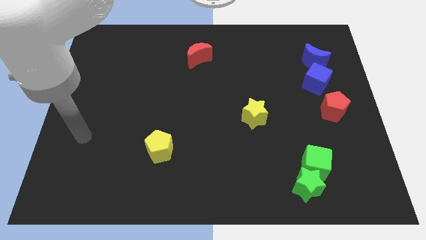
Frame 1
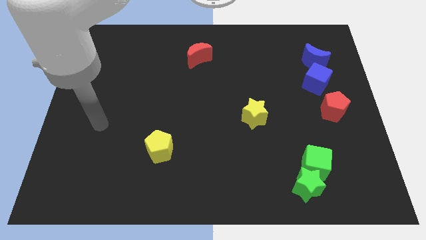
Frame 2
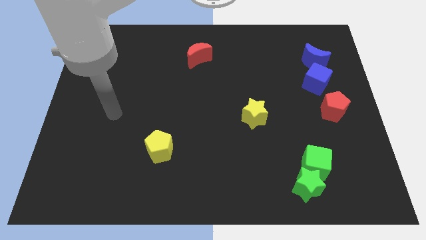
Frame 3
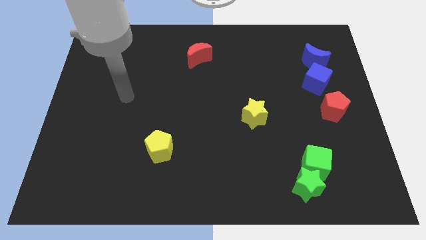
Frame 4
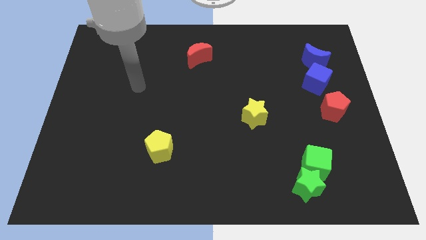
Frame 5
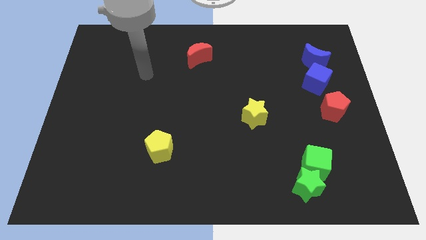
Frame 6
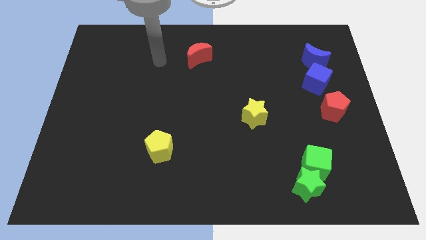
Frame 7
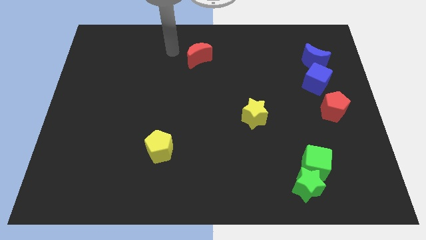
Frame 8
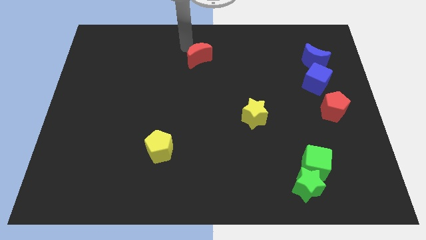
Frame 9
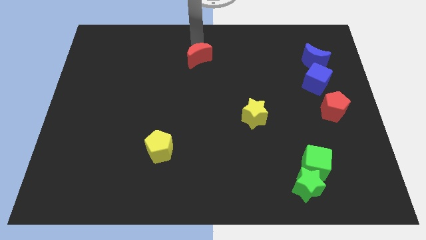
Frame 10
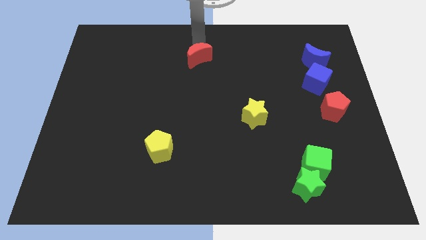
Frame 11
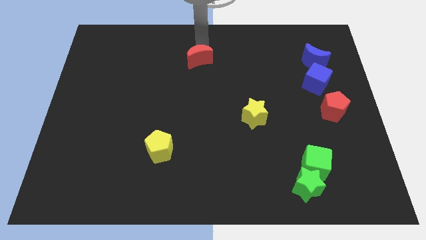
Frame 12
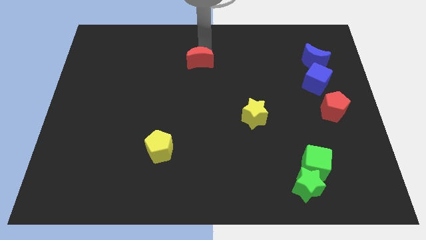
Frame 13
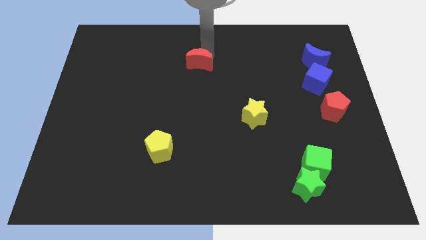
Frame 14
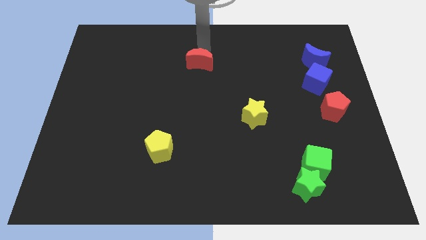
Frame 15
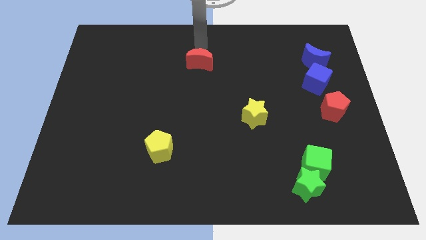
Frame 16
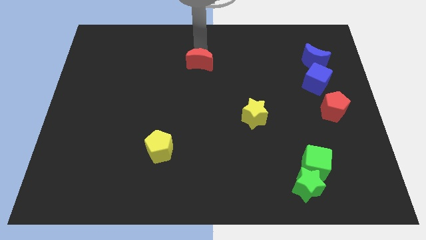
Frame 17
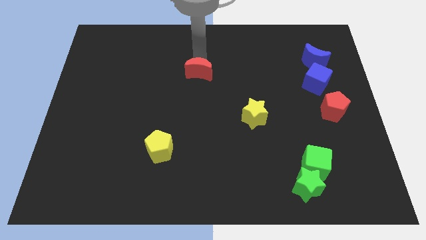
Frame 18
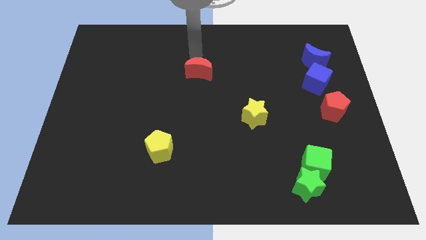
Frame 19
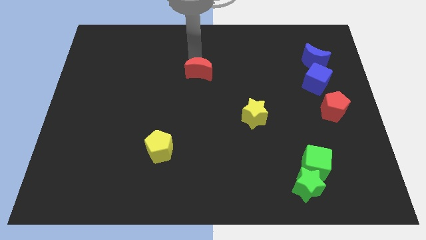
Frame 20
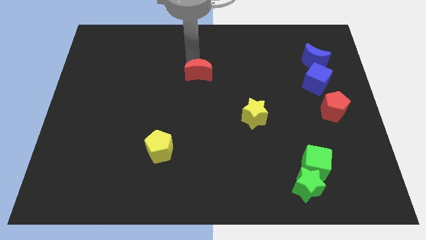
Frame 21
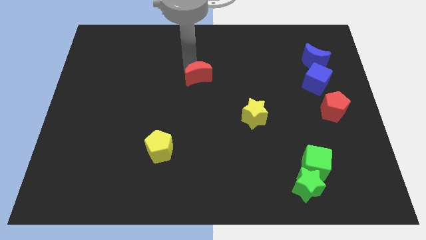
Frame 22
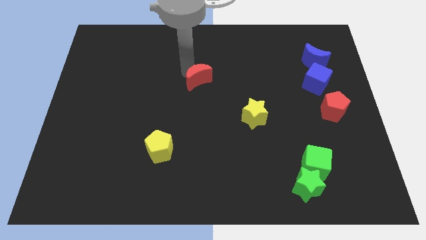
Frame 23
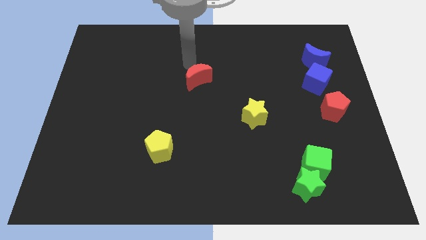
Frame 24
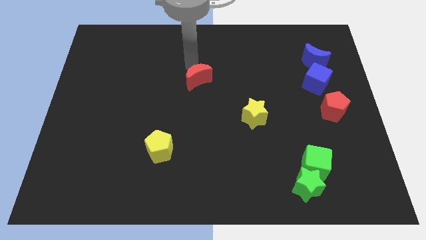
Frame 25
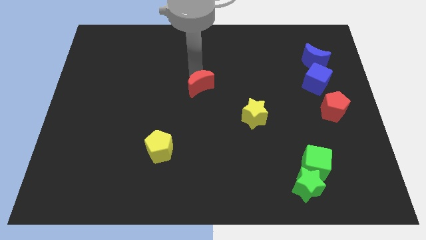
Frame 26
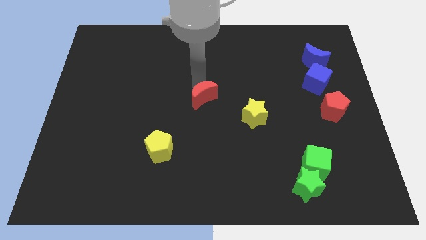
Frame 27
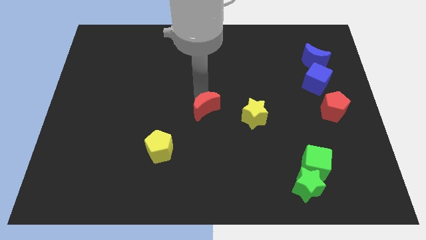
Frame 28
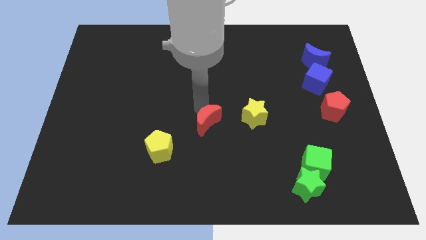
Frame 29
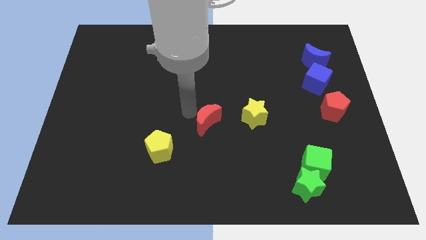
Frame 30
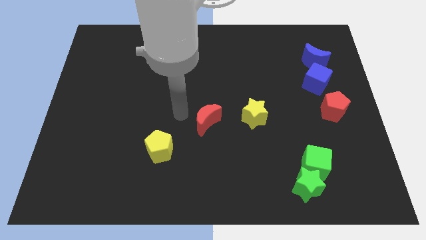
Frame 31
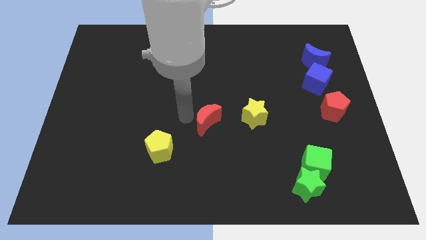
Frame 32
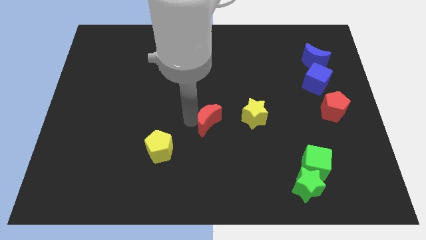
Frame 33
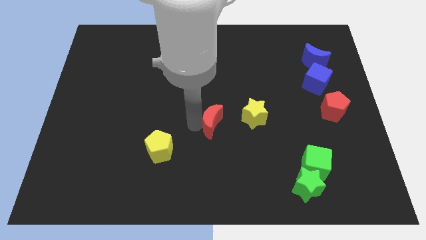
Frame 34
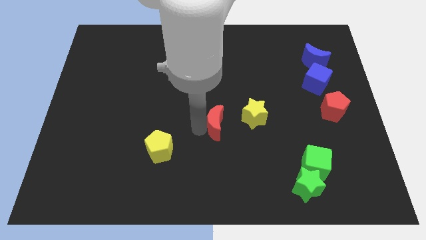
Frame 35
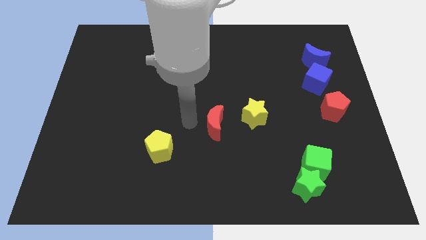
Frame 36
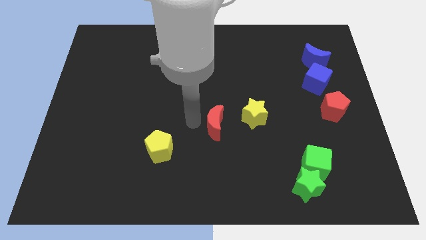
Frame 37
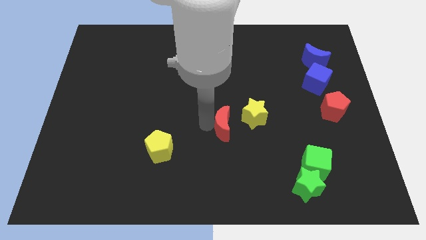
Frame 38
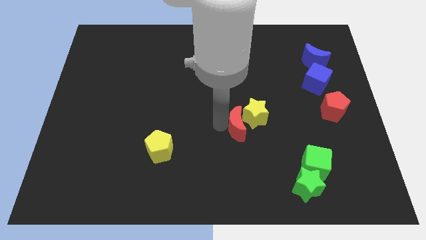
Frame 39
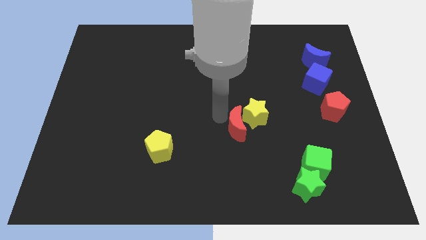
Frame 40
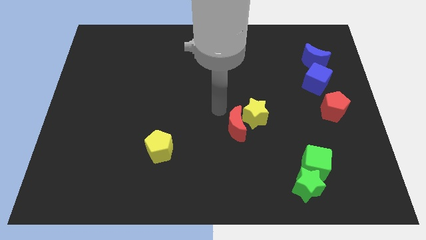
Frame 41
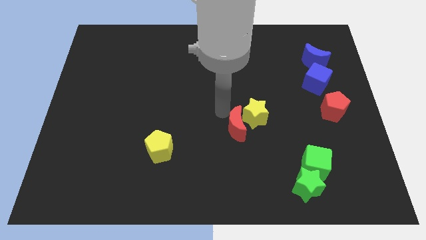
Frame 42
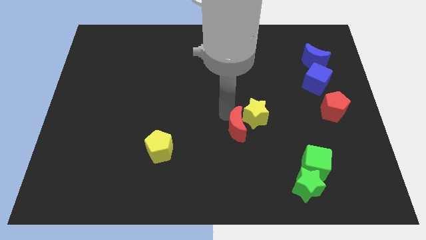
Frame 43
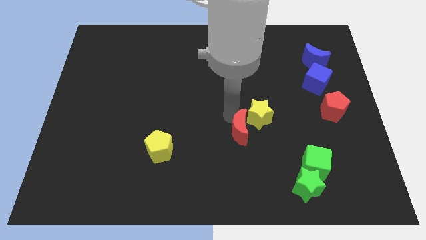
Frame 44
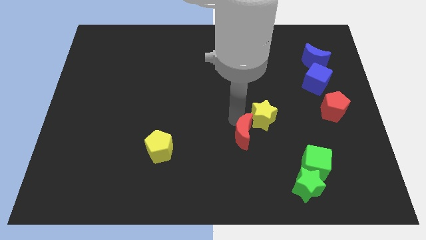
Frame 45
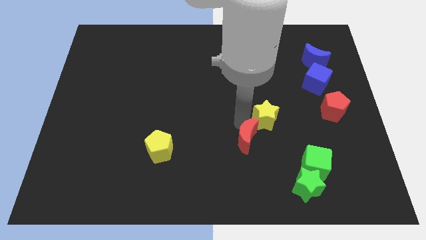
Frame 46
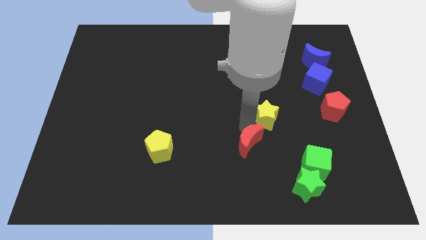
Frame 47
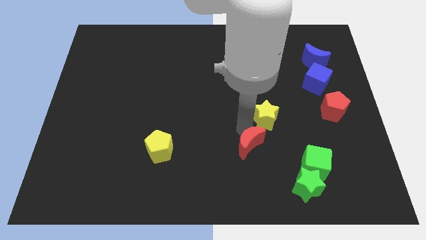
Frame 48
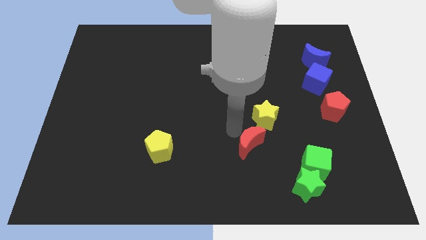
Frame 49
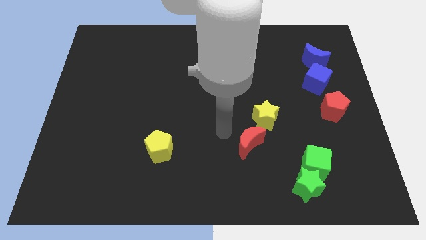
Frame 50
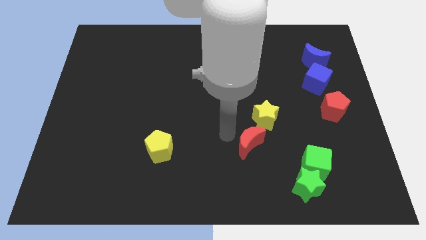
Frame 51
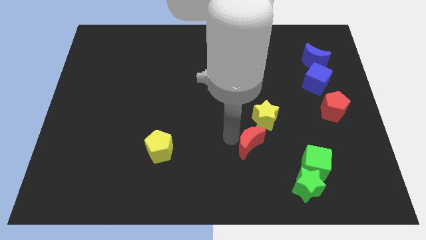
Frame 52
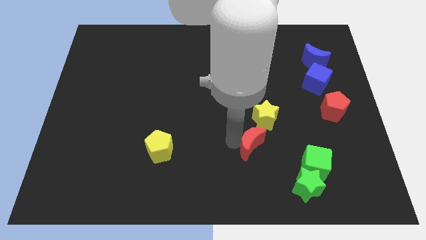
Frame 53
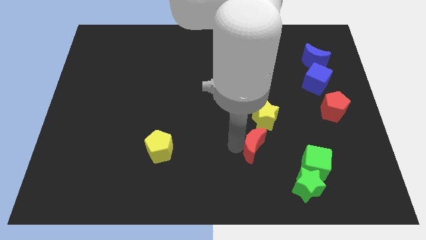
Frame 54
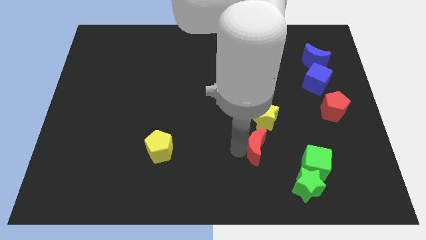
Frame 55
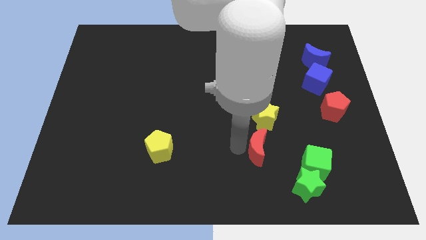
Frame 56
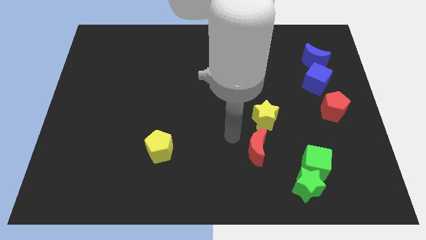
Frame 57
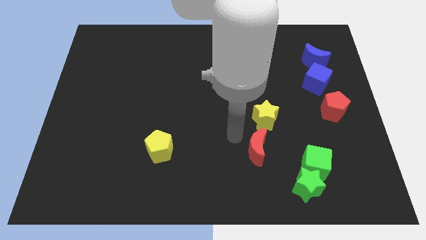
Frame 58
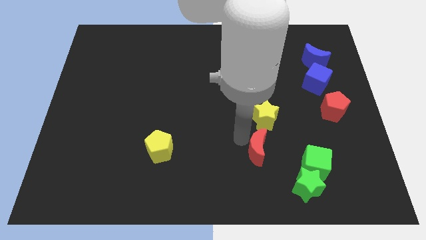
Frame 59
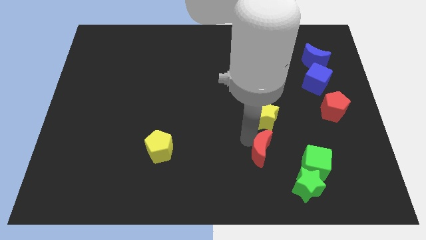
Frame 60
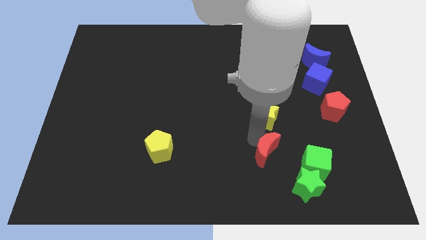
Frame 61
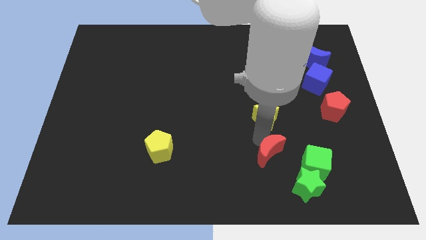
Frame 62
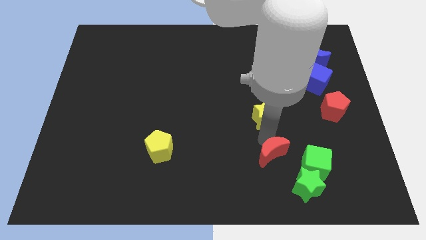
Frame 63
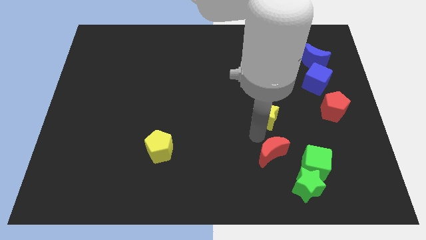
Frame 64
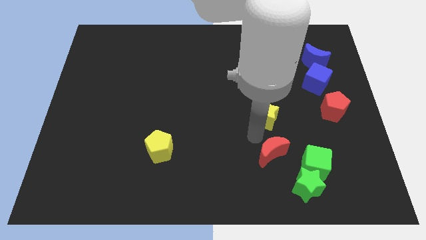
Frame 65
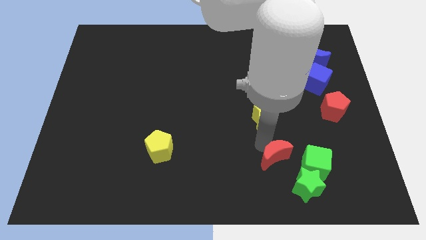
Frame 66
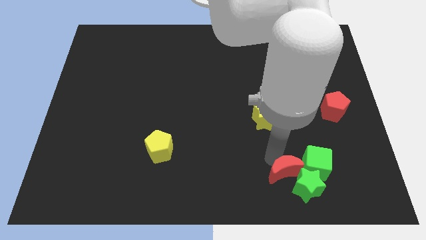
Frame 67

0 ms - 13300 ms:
put the red moon close to the green star
